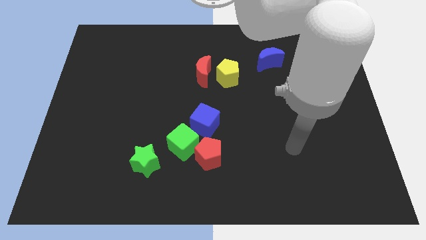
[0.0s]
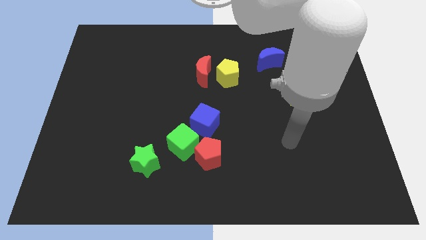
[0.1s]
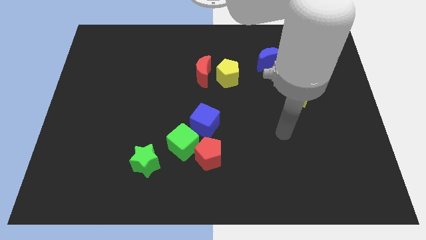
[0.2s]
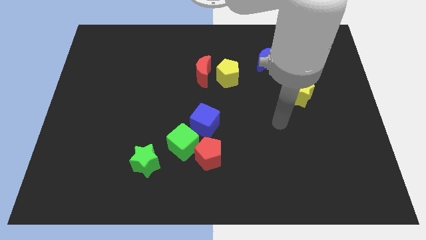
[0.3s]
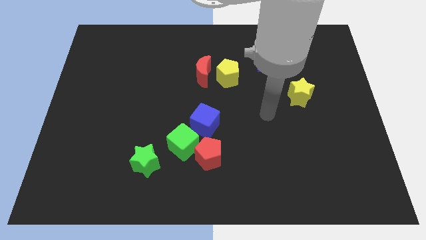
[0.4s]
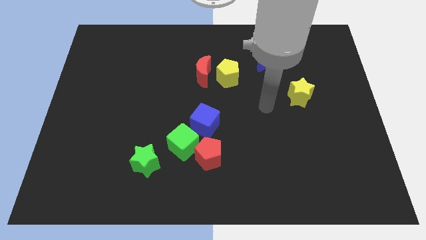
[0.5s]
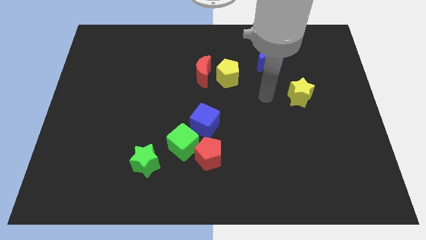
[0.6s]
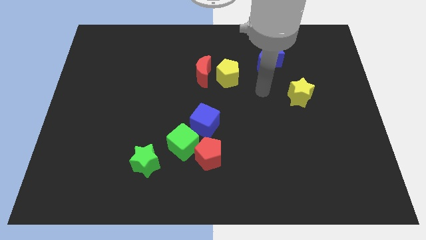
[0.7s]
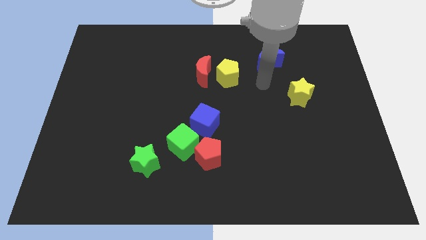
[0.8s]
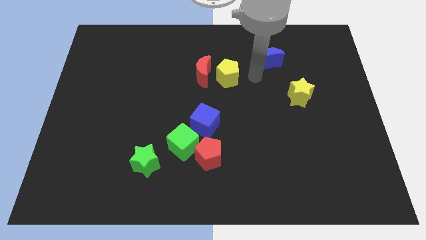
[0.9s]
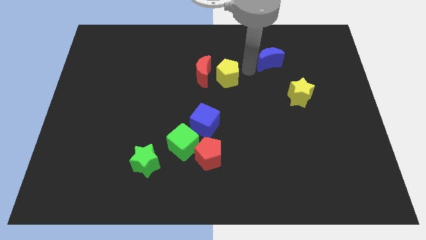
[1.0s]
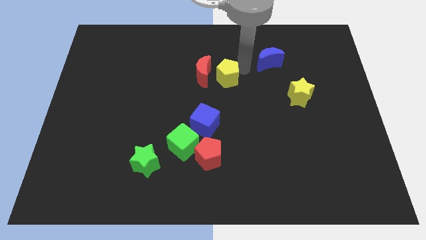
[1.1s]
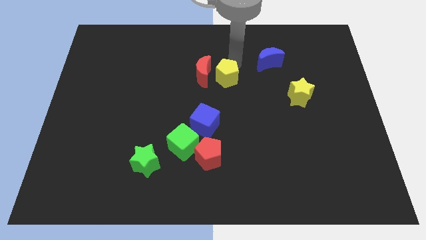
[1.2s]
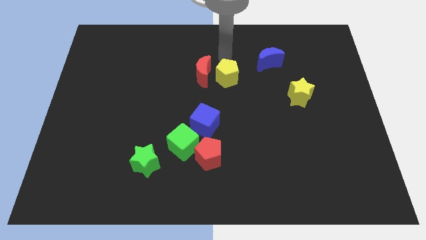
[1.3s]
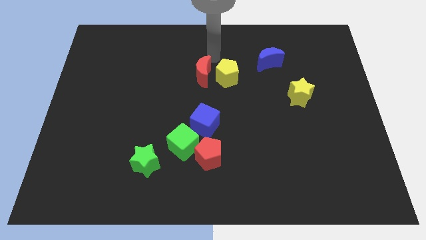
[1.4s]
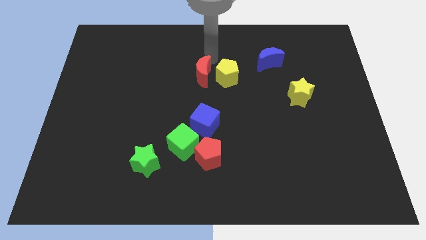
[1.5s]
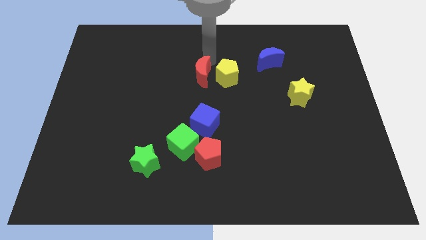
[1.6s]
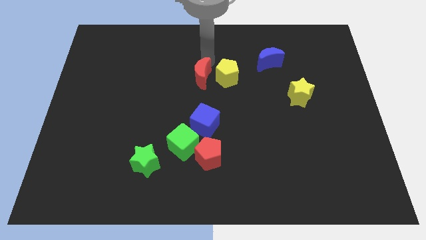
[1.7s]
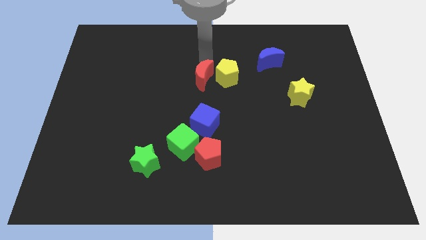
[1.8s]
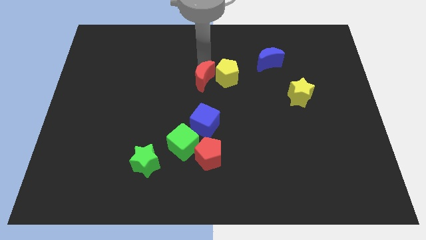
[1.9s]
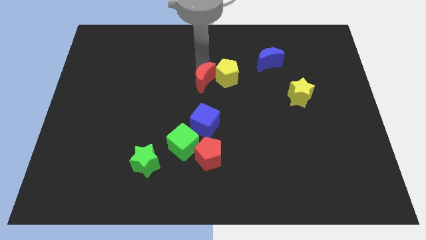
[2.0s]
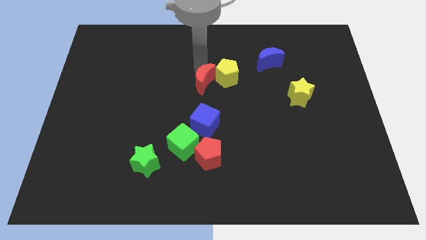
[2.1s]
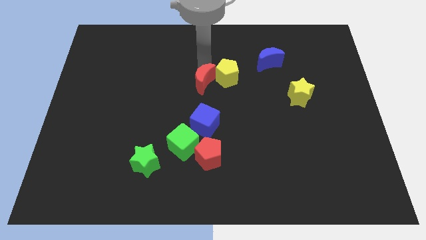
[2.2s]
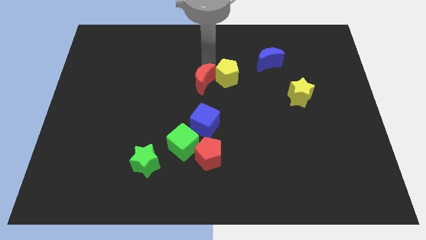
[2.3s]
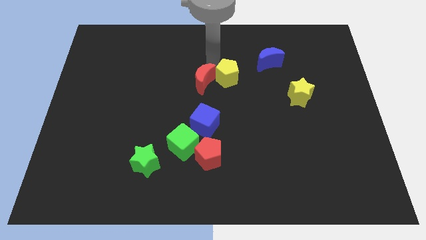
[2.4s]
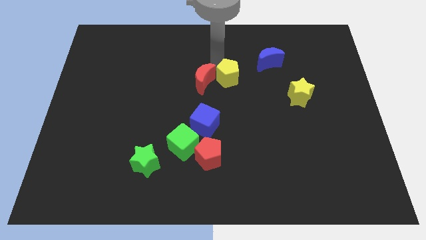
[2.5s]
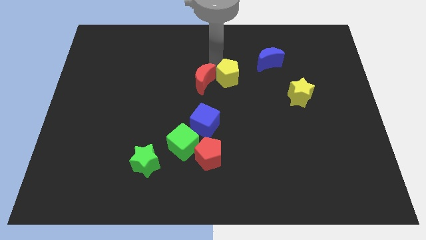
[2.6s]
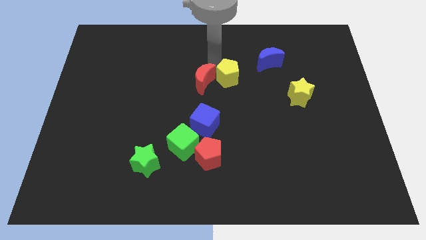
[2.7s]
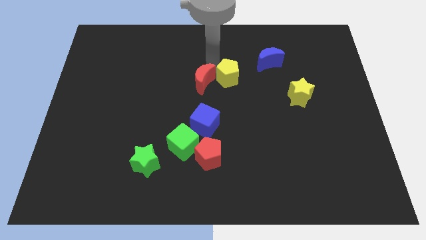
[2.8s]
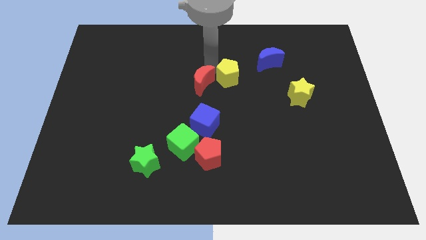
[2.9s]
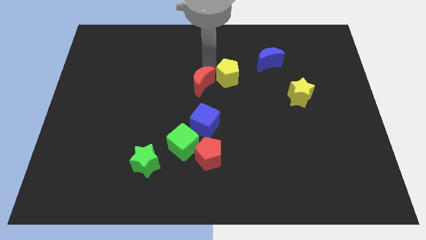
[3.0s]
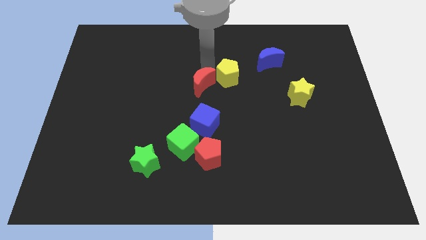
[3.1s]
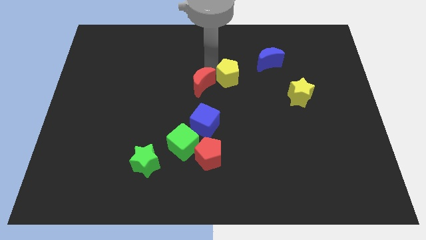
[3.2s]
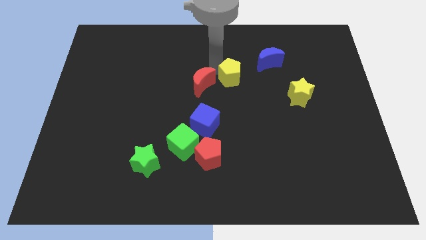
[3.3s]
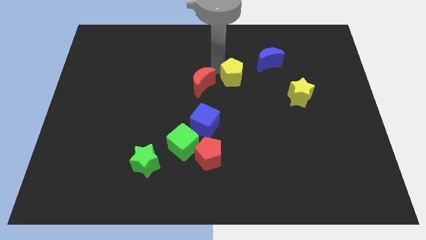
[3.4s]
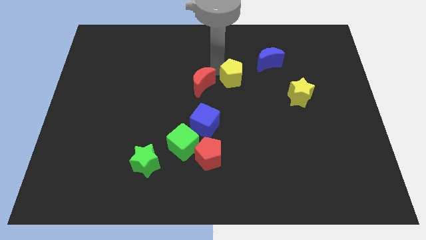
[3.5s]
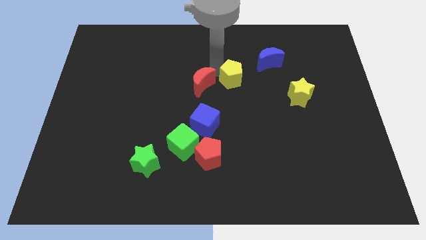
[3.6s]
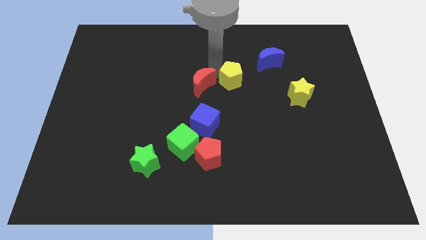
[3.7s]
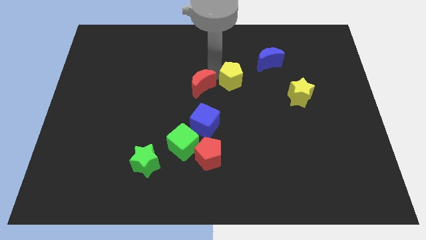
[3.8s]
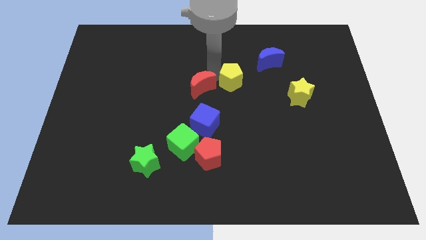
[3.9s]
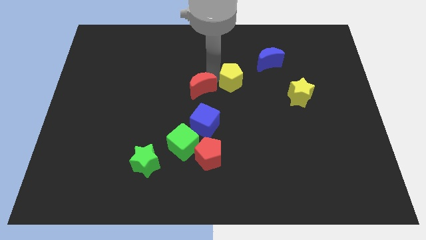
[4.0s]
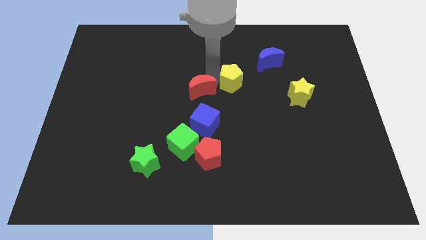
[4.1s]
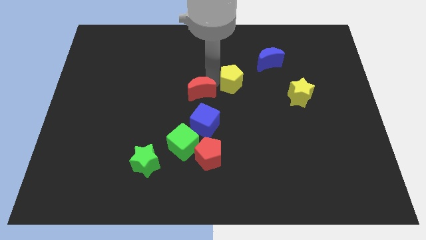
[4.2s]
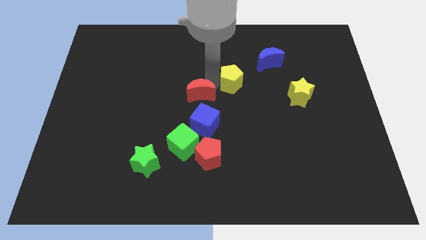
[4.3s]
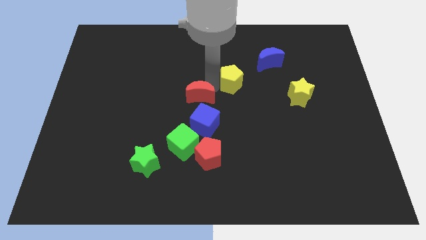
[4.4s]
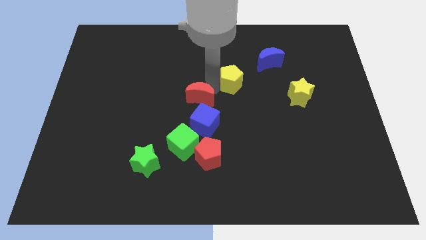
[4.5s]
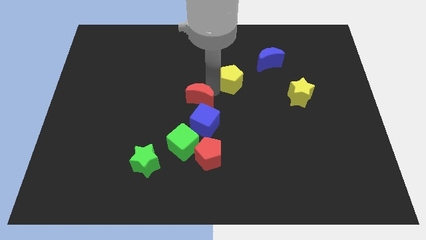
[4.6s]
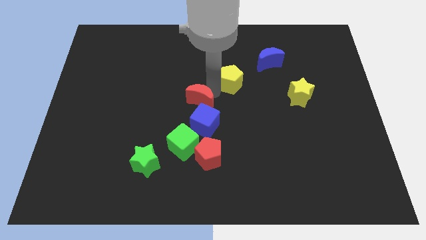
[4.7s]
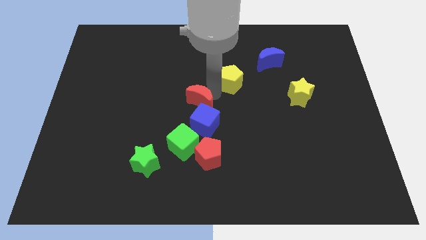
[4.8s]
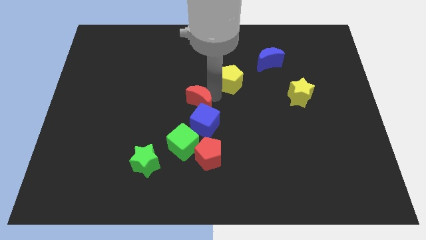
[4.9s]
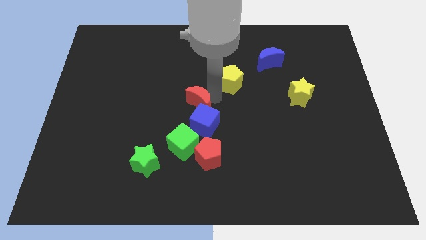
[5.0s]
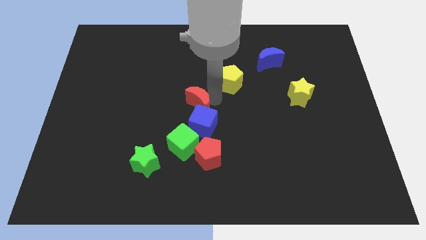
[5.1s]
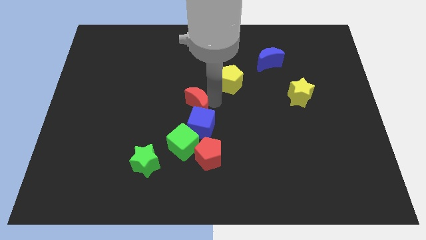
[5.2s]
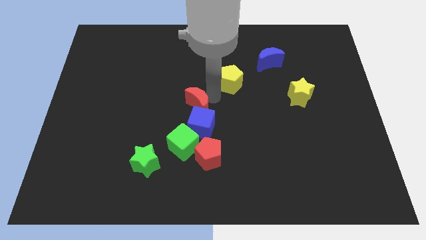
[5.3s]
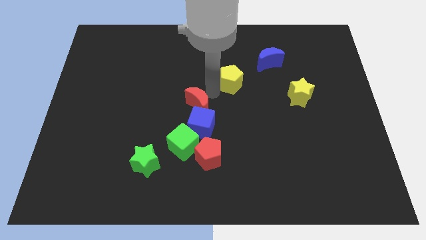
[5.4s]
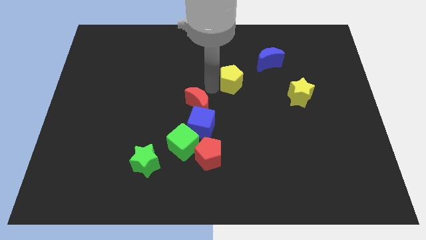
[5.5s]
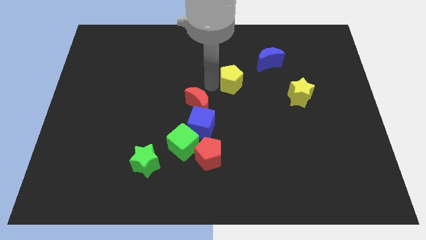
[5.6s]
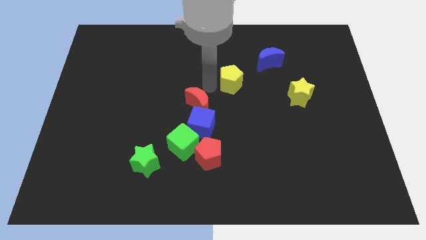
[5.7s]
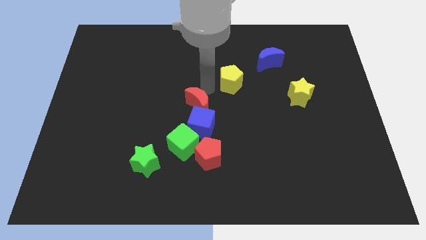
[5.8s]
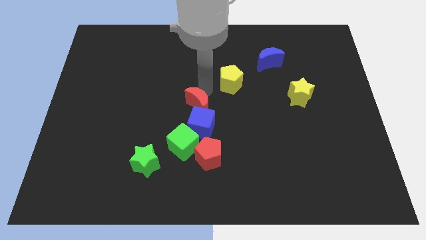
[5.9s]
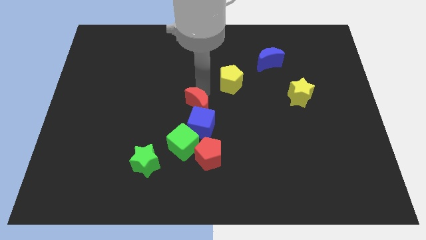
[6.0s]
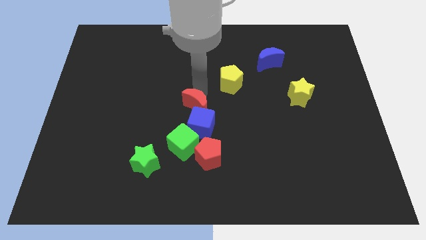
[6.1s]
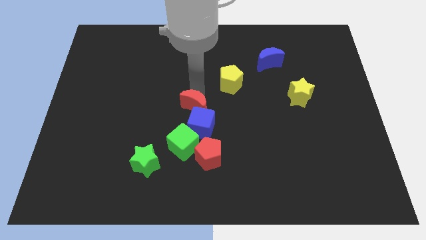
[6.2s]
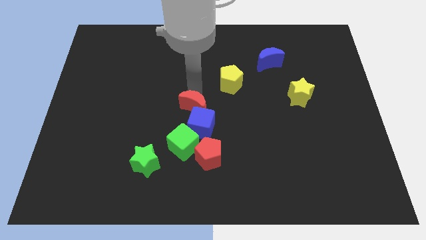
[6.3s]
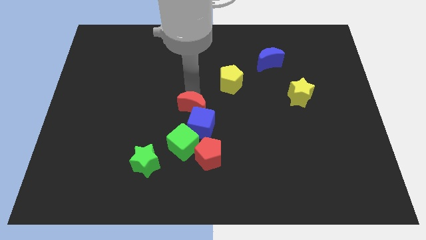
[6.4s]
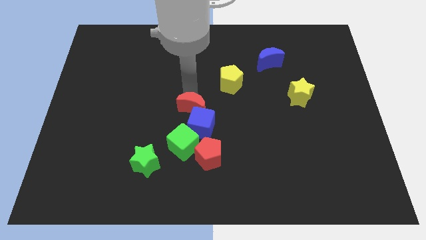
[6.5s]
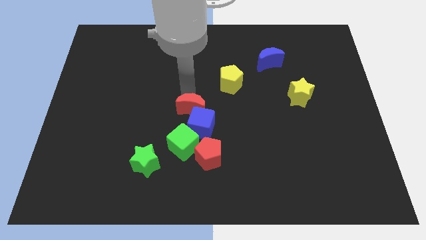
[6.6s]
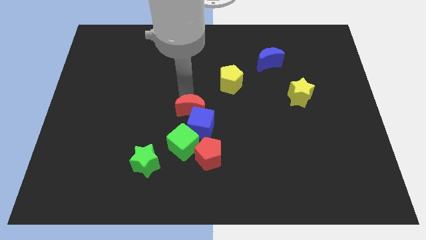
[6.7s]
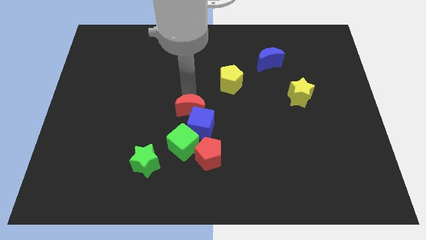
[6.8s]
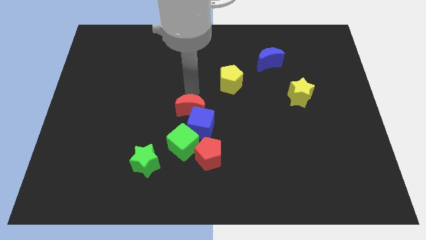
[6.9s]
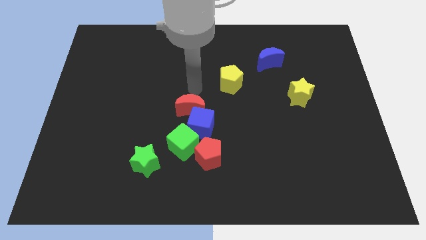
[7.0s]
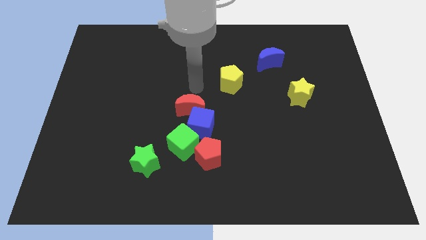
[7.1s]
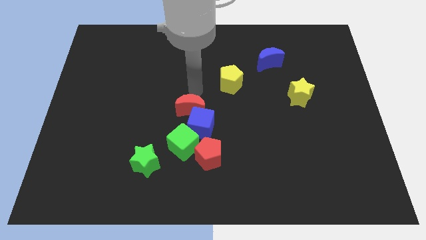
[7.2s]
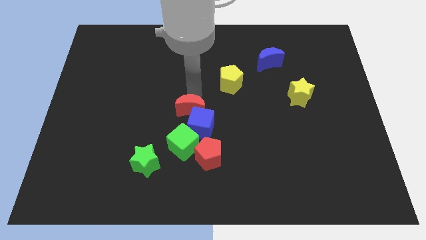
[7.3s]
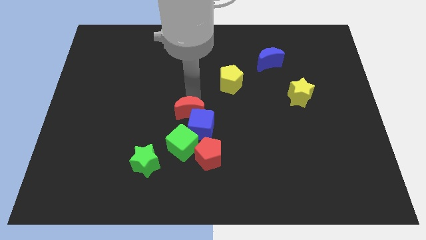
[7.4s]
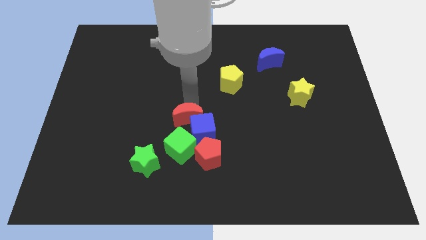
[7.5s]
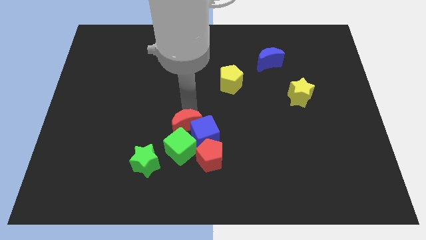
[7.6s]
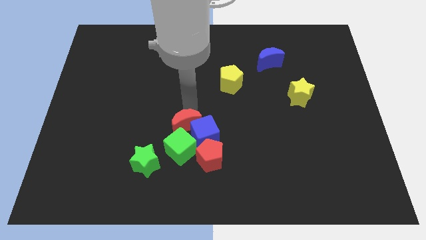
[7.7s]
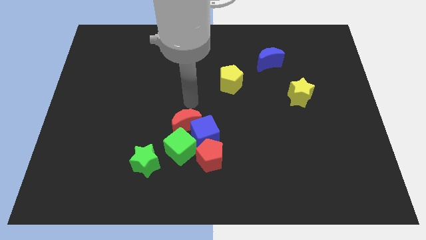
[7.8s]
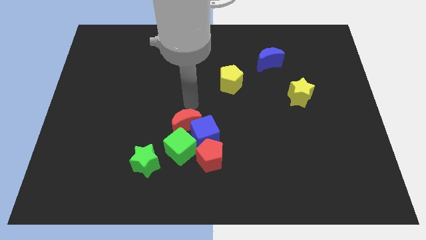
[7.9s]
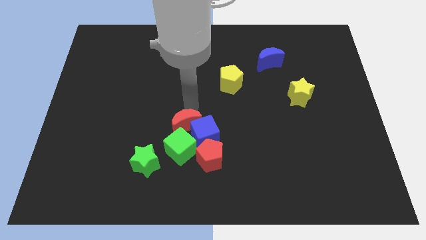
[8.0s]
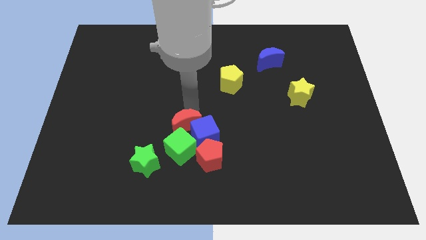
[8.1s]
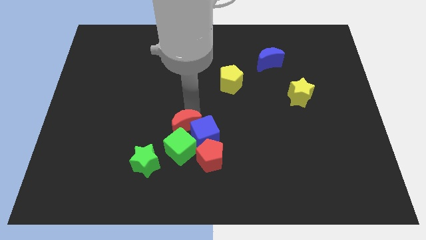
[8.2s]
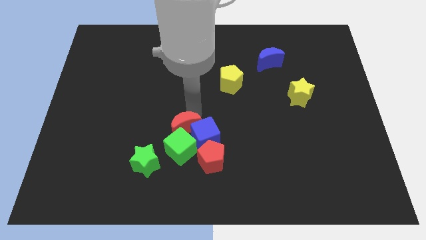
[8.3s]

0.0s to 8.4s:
slide the red moon towards the green cube
